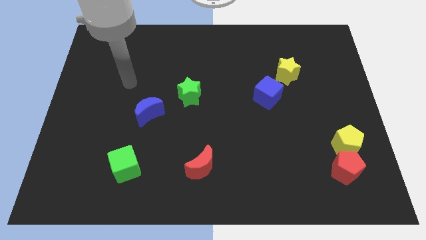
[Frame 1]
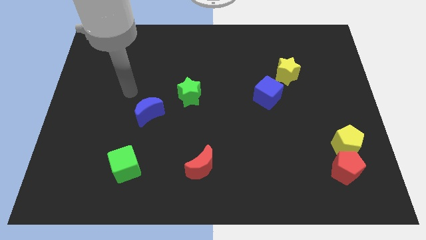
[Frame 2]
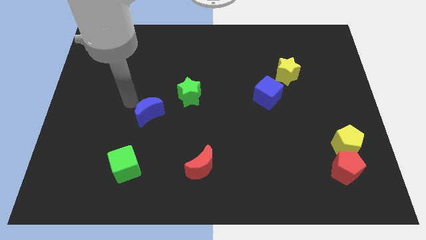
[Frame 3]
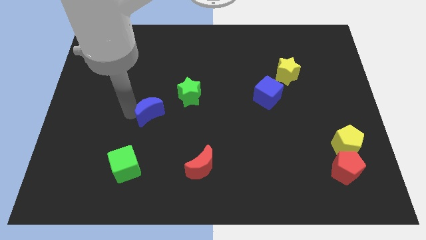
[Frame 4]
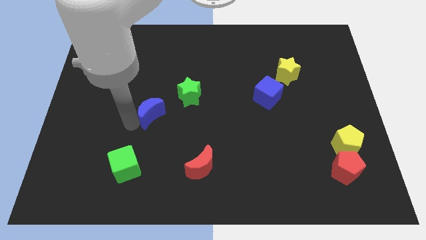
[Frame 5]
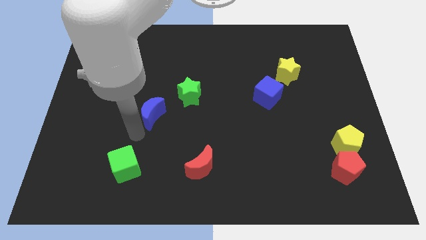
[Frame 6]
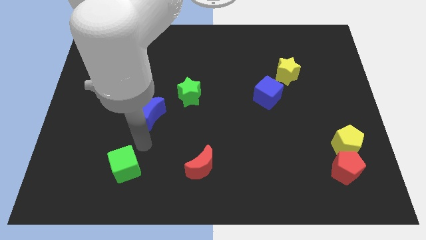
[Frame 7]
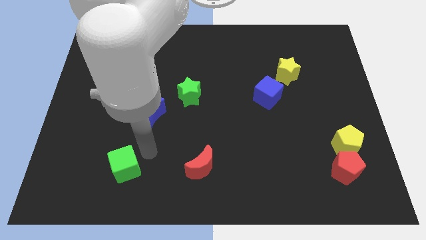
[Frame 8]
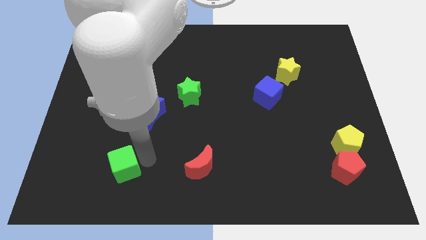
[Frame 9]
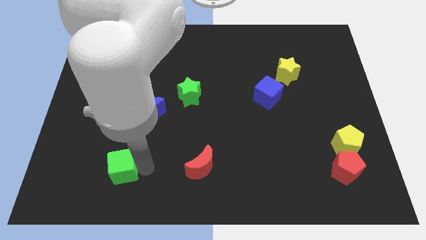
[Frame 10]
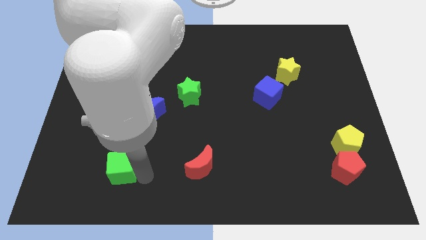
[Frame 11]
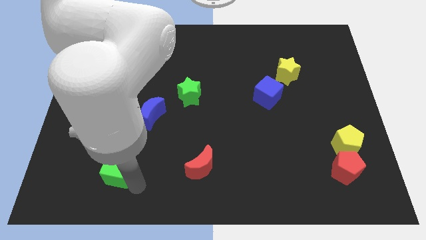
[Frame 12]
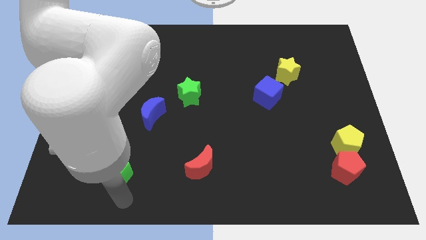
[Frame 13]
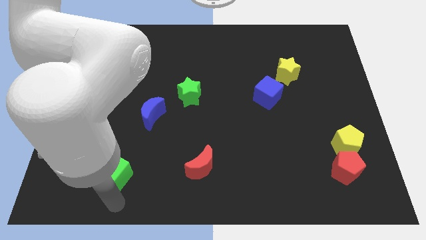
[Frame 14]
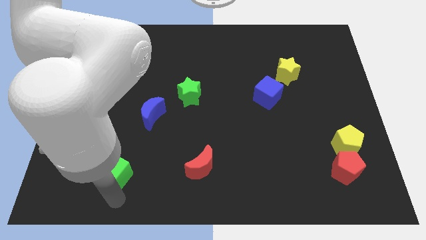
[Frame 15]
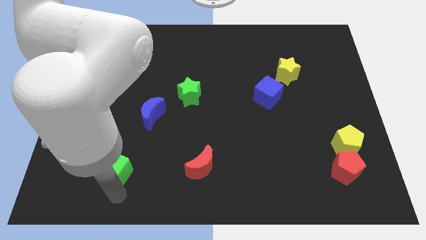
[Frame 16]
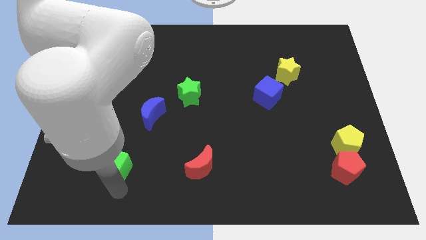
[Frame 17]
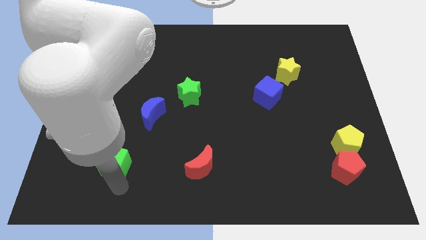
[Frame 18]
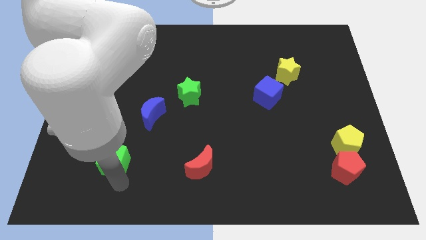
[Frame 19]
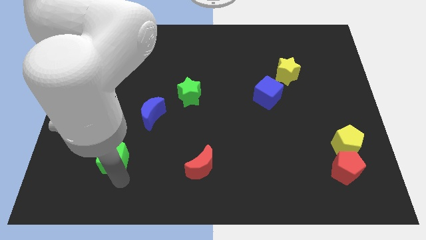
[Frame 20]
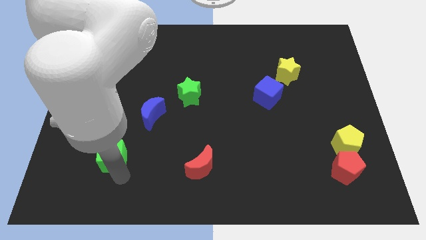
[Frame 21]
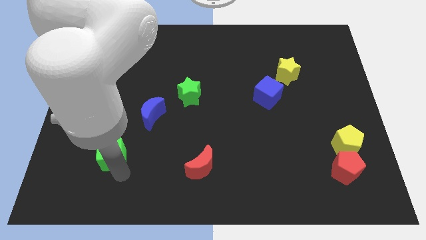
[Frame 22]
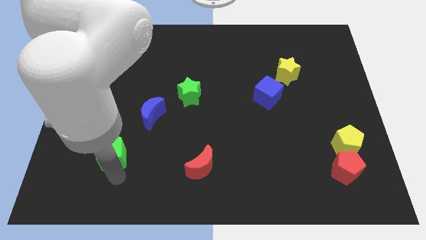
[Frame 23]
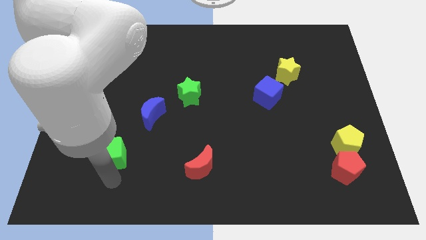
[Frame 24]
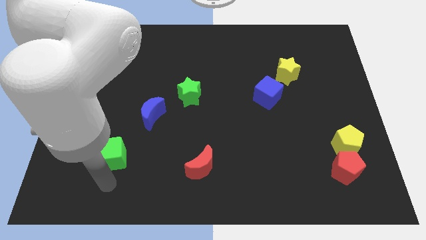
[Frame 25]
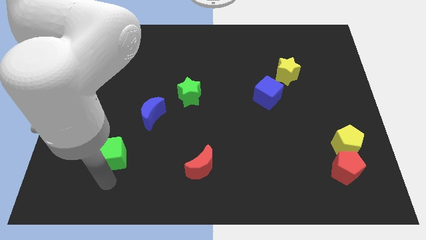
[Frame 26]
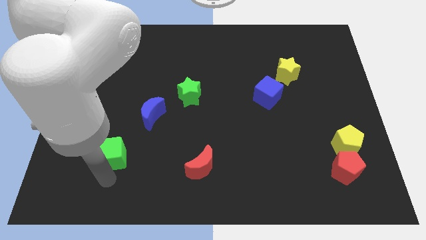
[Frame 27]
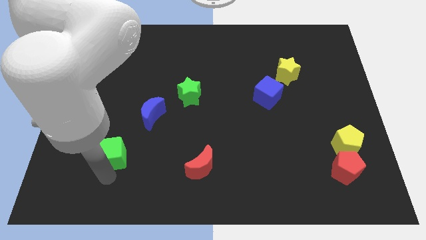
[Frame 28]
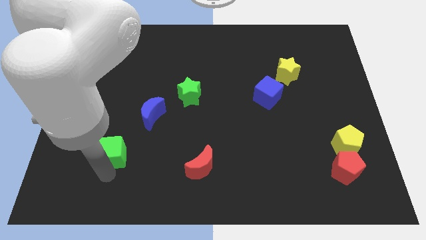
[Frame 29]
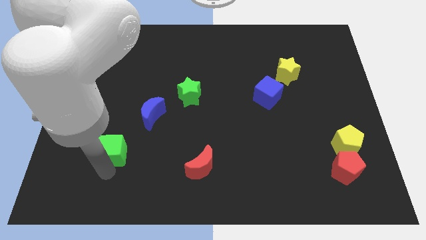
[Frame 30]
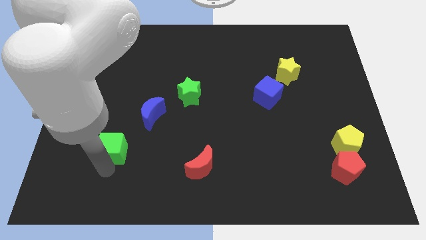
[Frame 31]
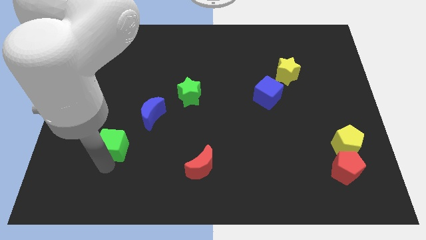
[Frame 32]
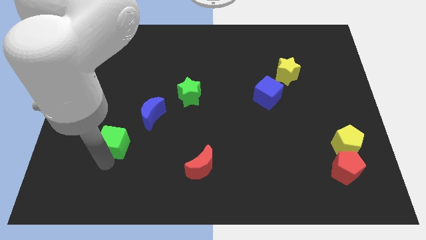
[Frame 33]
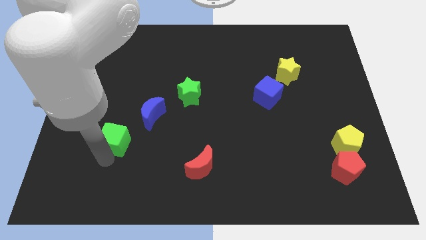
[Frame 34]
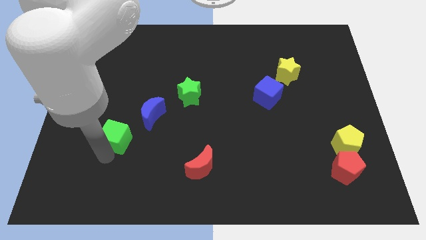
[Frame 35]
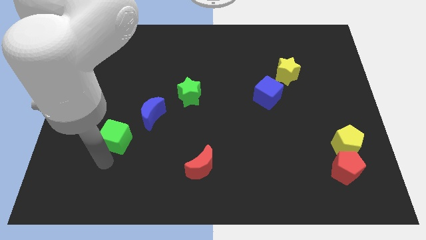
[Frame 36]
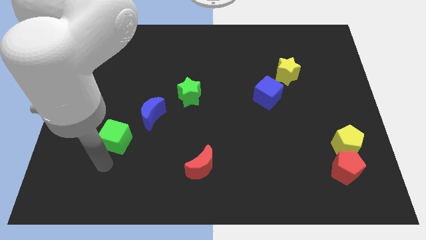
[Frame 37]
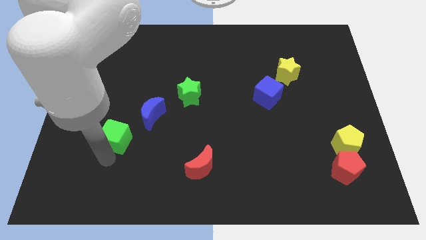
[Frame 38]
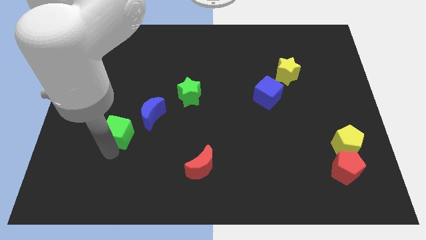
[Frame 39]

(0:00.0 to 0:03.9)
slightly move the green cube upwards

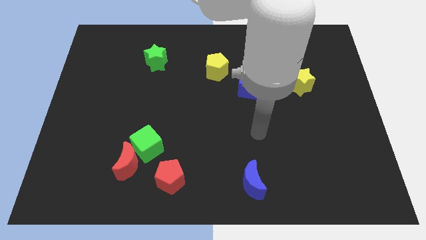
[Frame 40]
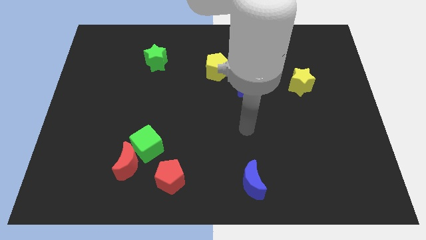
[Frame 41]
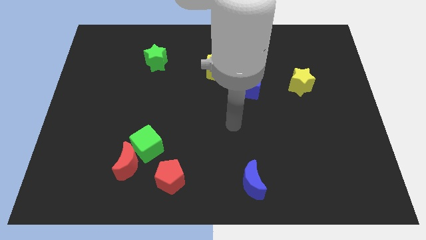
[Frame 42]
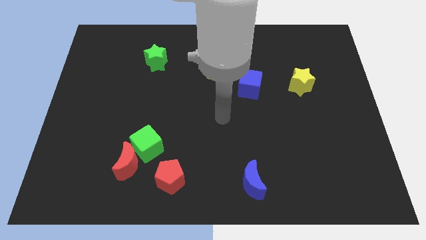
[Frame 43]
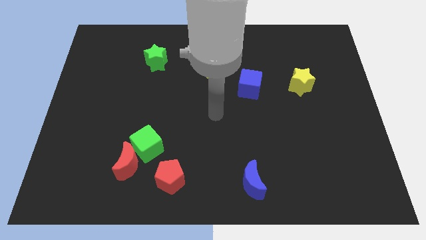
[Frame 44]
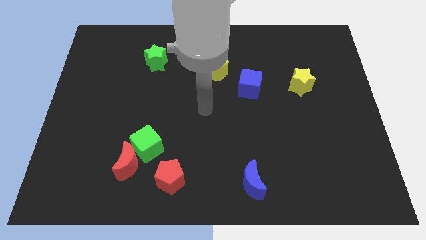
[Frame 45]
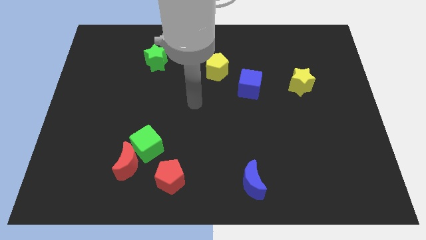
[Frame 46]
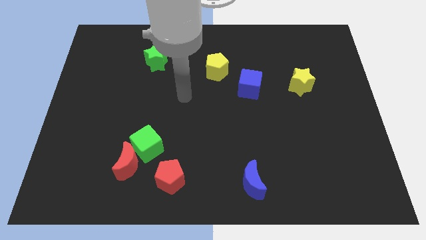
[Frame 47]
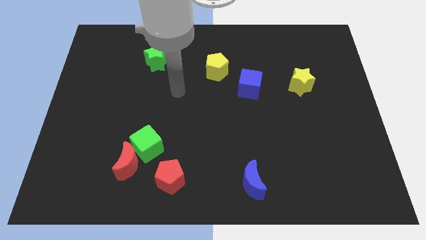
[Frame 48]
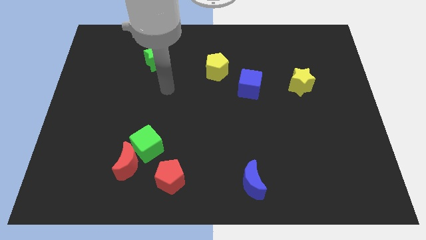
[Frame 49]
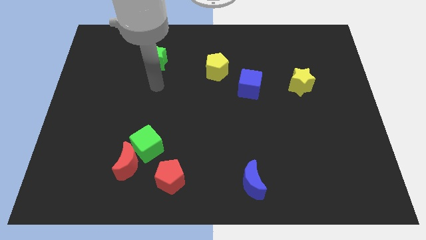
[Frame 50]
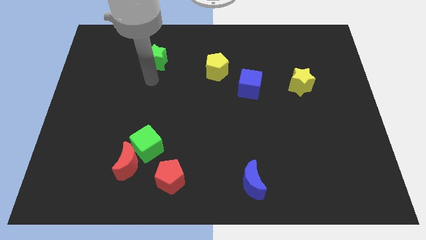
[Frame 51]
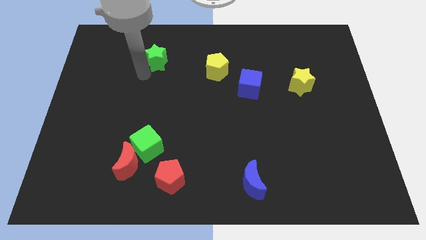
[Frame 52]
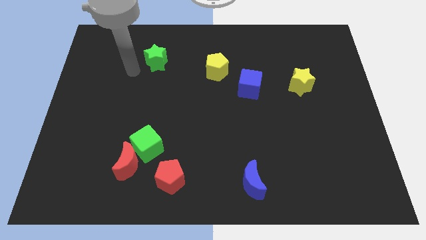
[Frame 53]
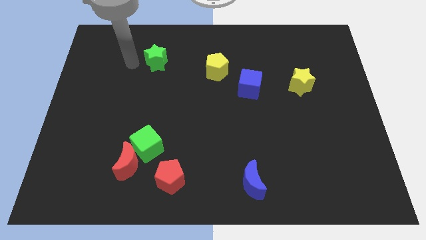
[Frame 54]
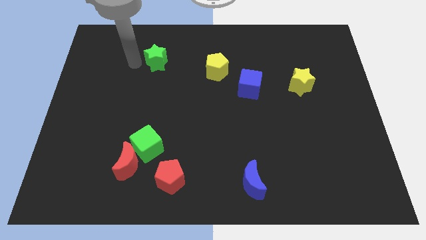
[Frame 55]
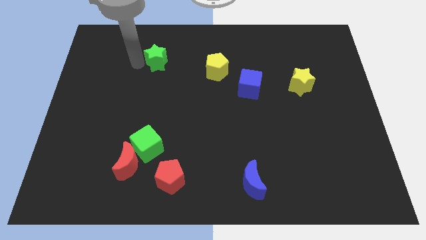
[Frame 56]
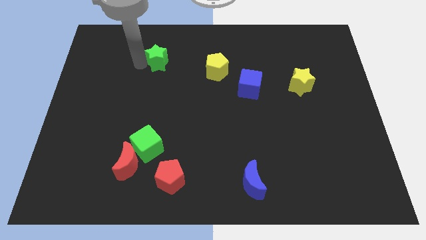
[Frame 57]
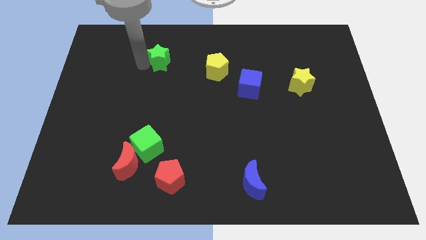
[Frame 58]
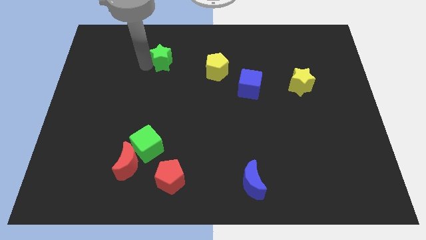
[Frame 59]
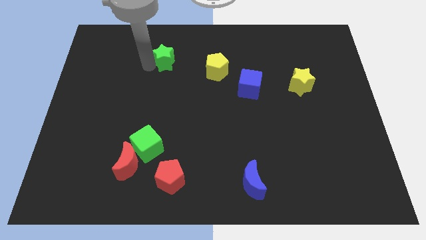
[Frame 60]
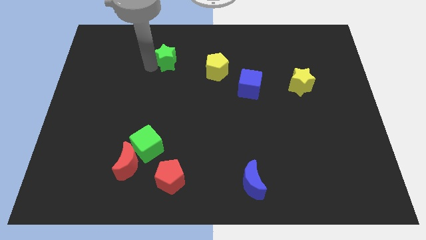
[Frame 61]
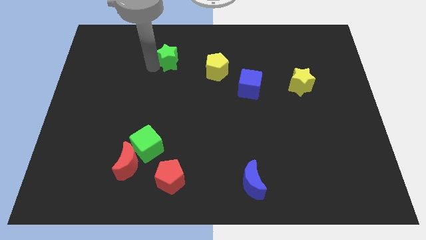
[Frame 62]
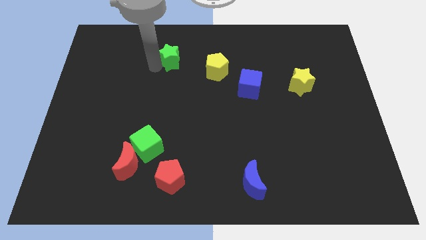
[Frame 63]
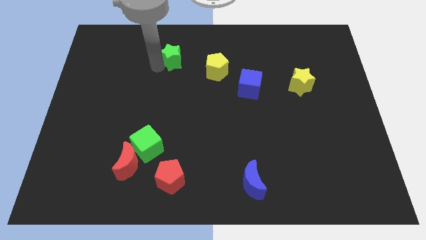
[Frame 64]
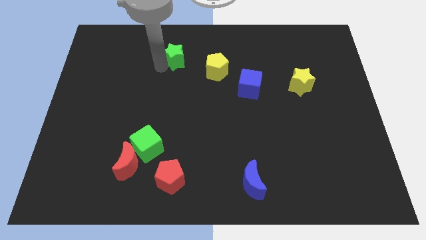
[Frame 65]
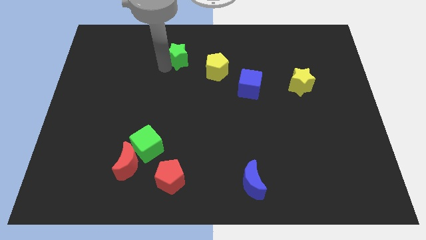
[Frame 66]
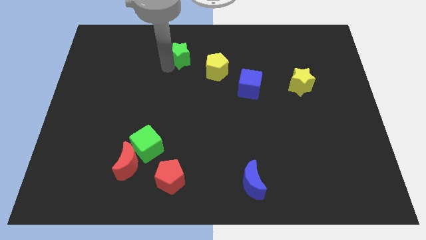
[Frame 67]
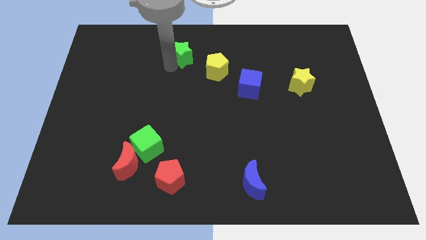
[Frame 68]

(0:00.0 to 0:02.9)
slide the green star right somewhat

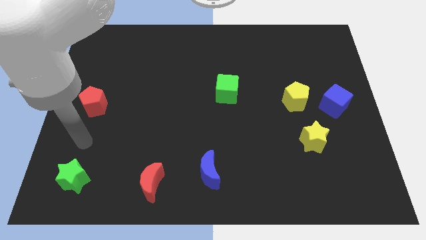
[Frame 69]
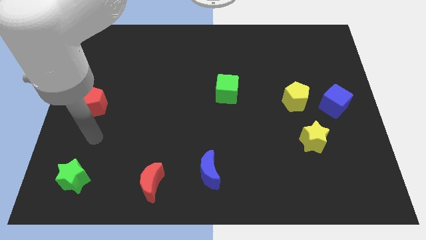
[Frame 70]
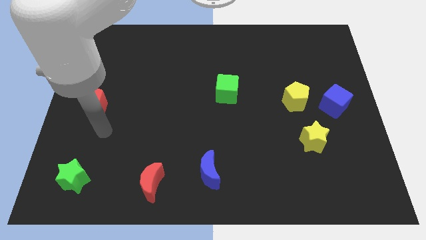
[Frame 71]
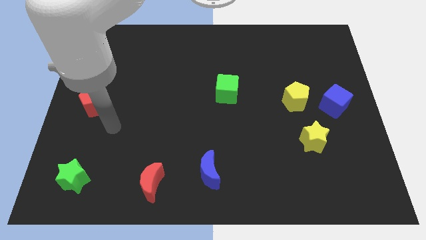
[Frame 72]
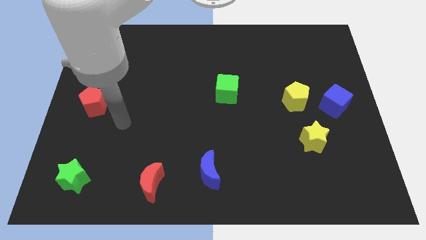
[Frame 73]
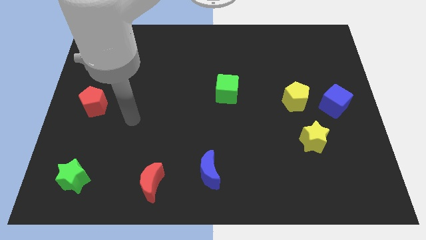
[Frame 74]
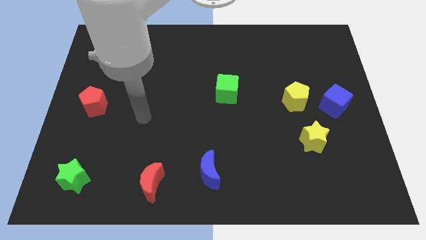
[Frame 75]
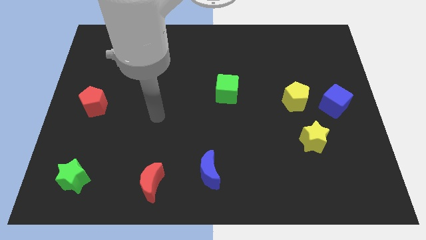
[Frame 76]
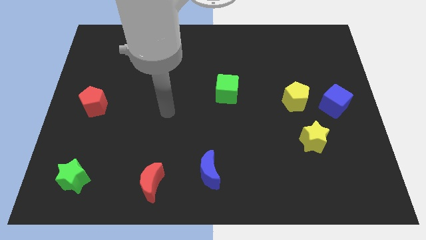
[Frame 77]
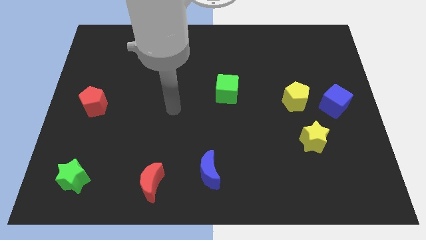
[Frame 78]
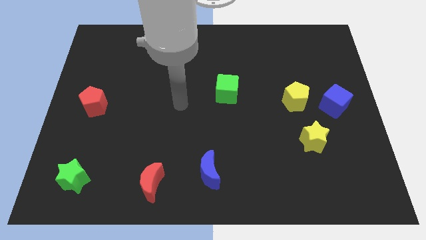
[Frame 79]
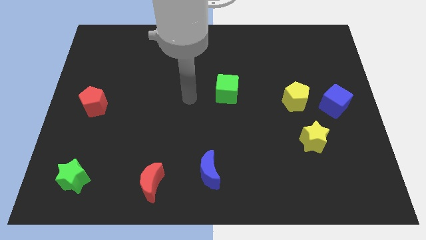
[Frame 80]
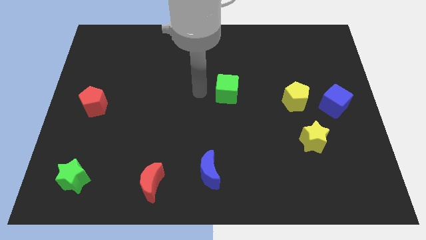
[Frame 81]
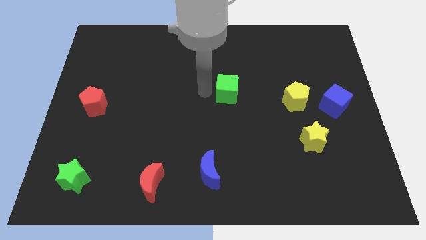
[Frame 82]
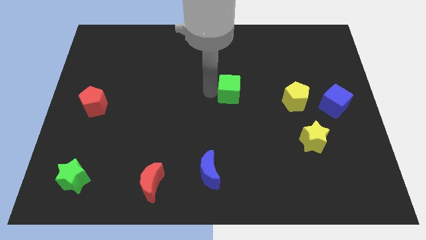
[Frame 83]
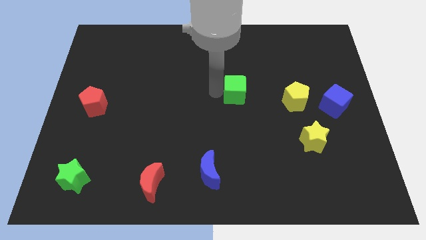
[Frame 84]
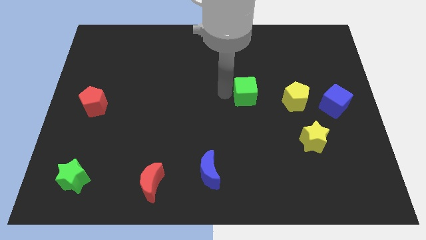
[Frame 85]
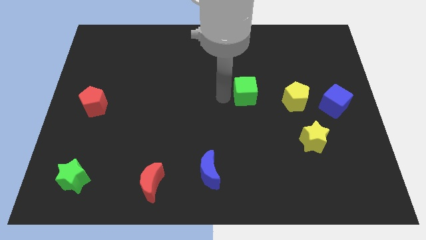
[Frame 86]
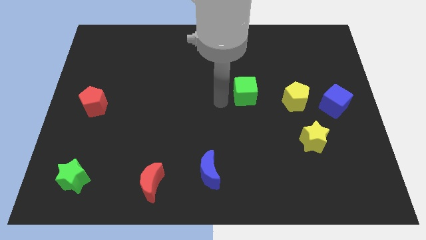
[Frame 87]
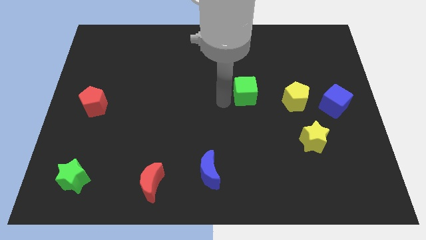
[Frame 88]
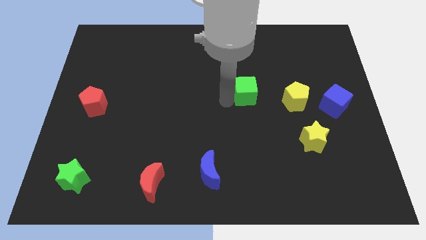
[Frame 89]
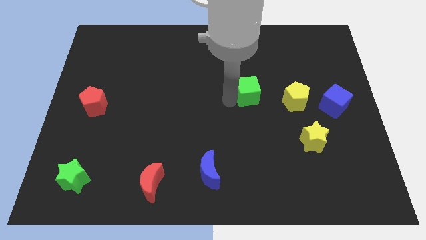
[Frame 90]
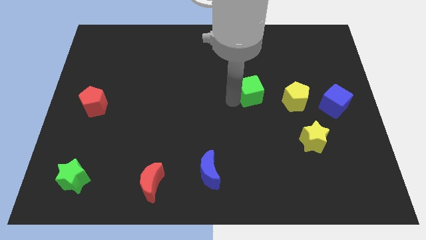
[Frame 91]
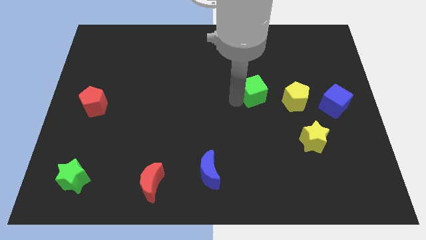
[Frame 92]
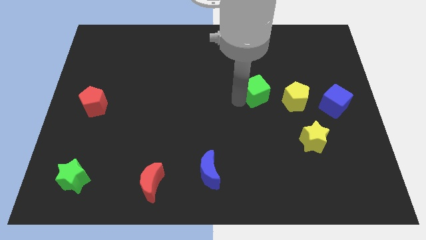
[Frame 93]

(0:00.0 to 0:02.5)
slide the green cube slightly right
